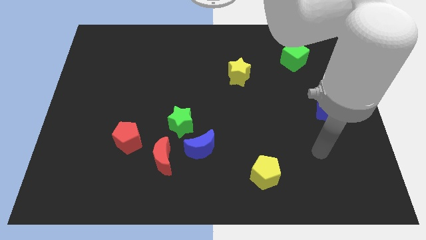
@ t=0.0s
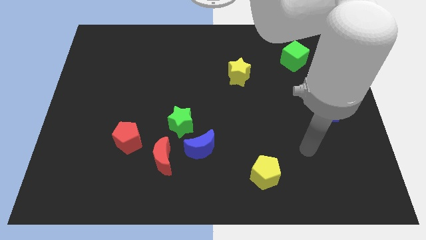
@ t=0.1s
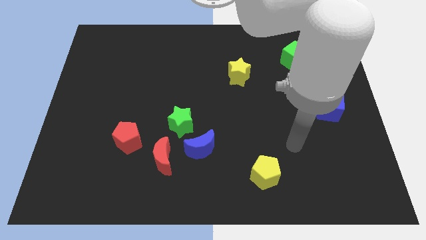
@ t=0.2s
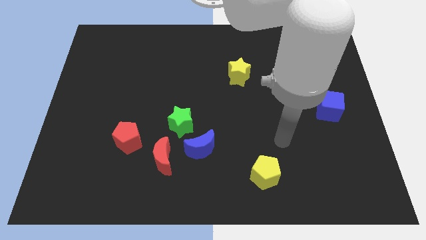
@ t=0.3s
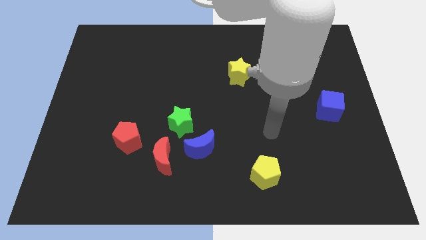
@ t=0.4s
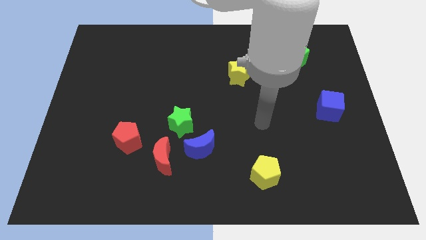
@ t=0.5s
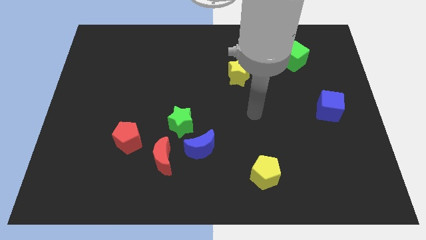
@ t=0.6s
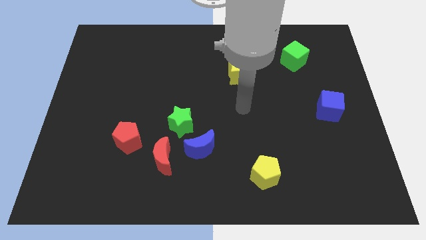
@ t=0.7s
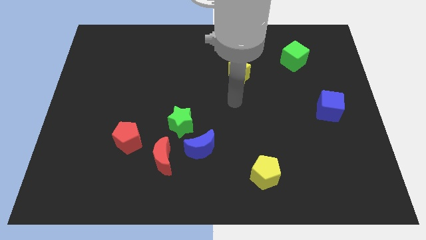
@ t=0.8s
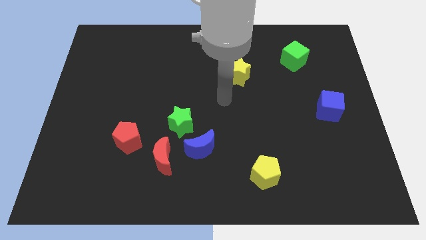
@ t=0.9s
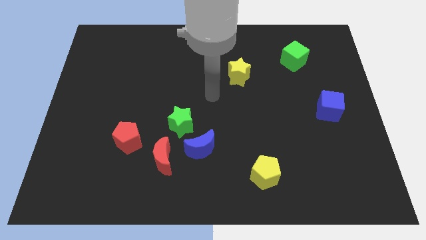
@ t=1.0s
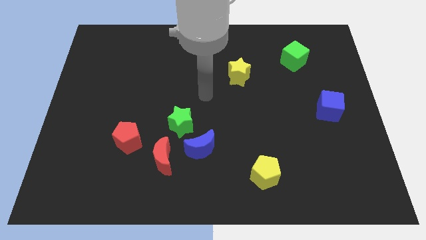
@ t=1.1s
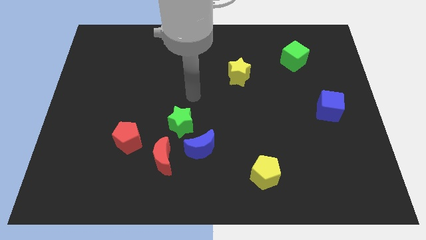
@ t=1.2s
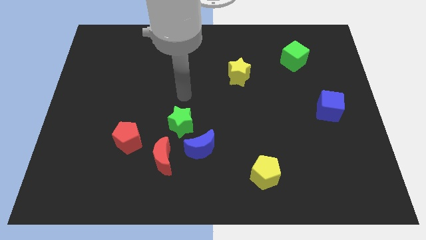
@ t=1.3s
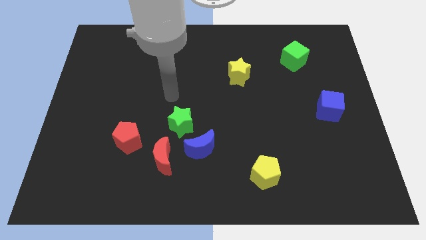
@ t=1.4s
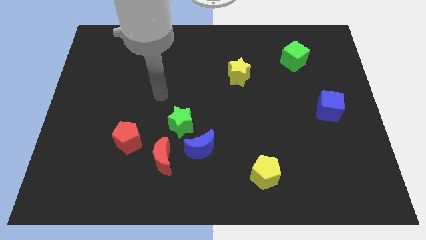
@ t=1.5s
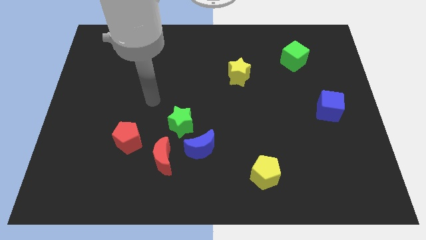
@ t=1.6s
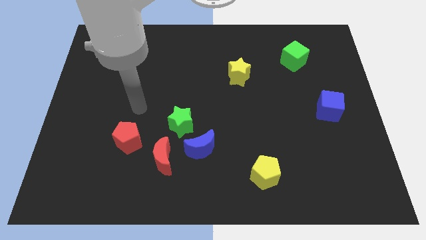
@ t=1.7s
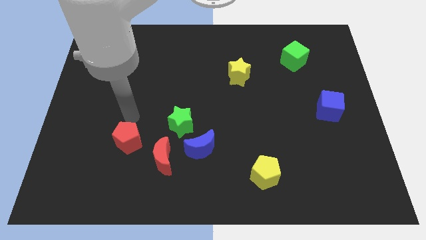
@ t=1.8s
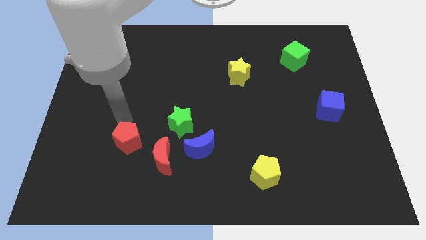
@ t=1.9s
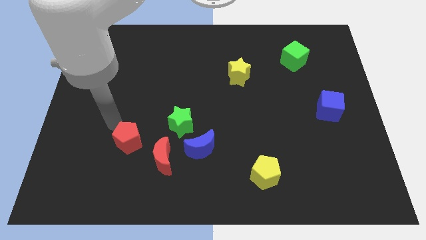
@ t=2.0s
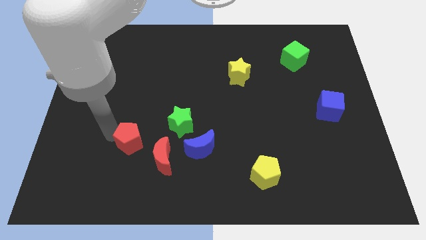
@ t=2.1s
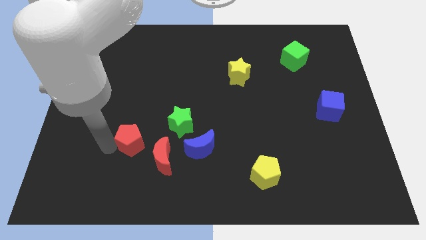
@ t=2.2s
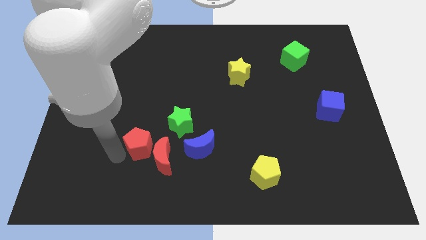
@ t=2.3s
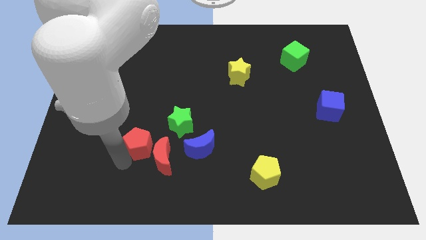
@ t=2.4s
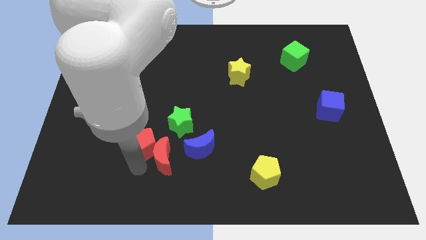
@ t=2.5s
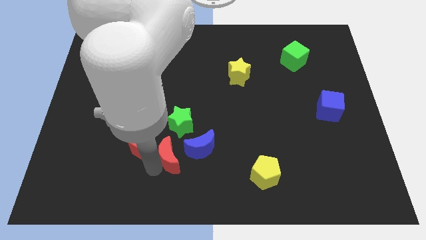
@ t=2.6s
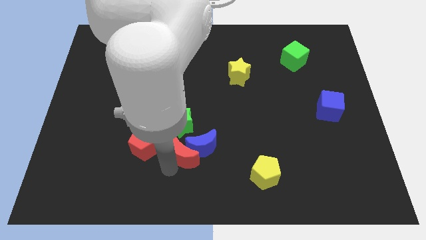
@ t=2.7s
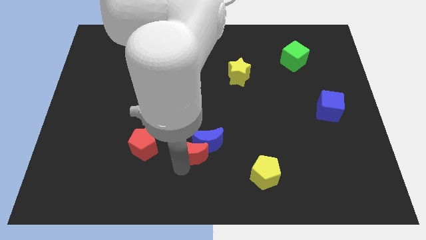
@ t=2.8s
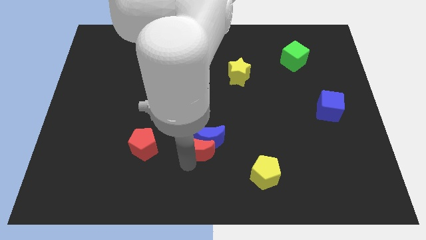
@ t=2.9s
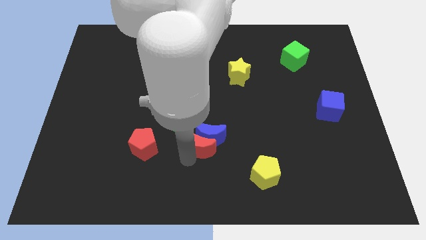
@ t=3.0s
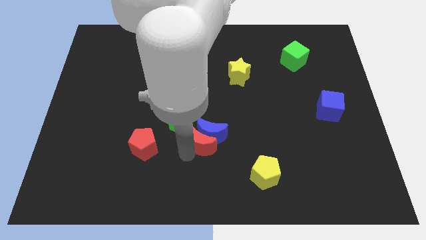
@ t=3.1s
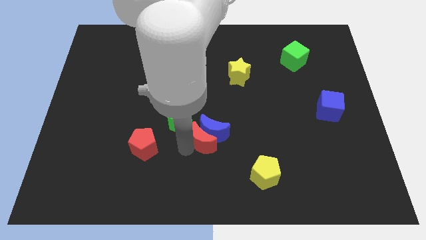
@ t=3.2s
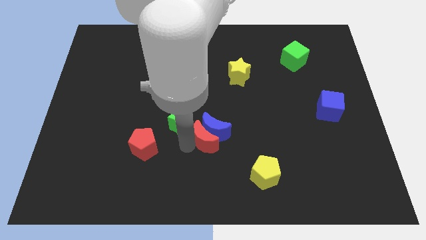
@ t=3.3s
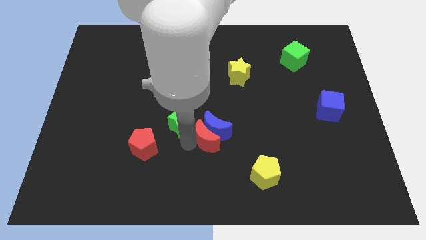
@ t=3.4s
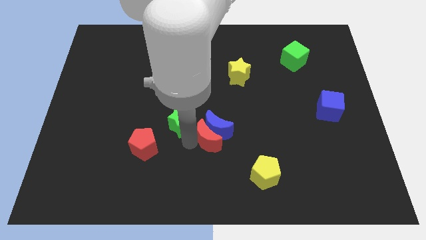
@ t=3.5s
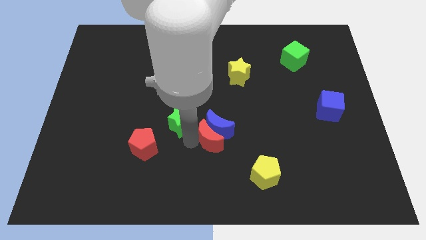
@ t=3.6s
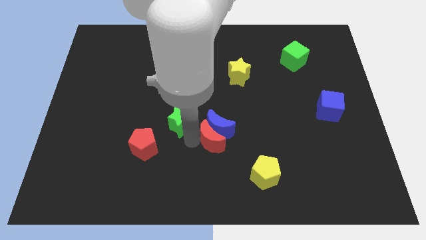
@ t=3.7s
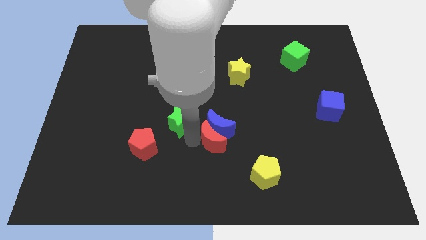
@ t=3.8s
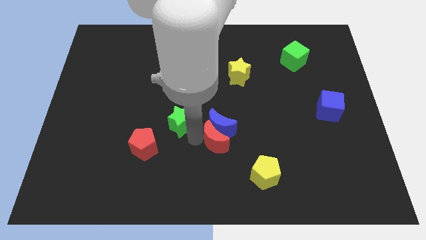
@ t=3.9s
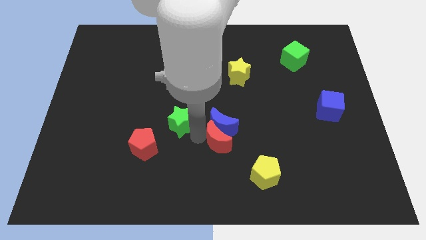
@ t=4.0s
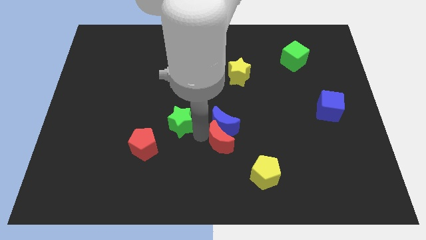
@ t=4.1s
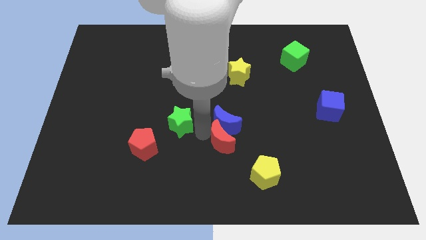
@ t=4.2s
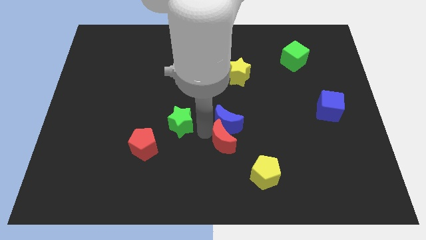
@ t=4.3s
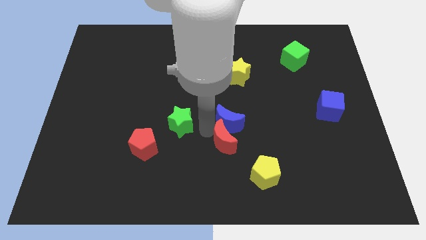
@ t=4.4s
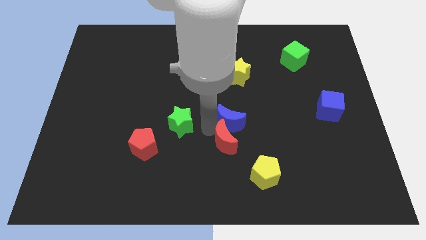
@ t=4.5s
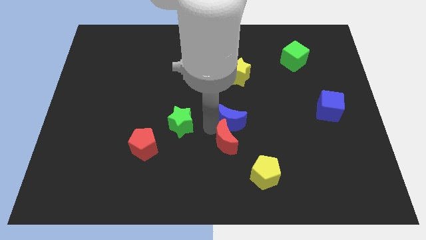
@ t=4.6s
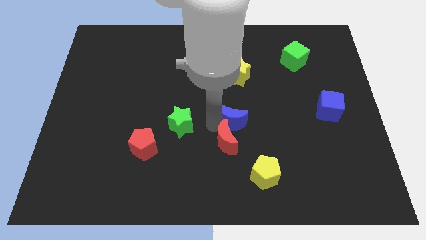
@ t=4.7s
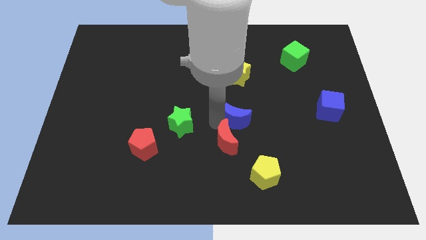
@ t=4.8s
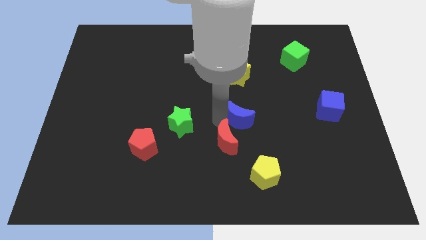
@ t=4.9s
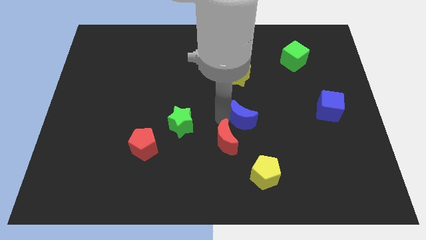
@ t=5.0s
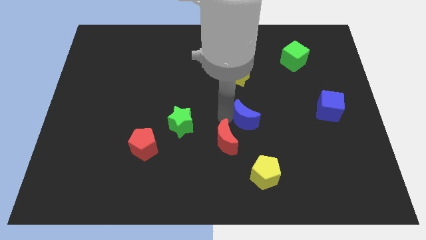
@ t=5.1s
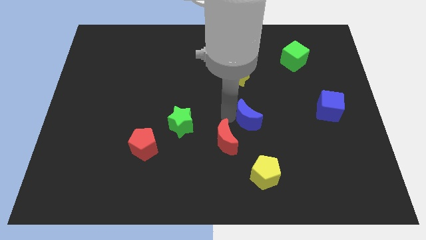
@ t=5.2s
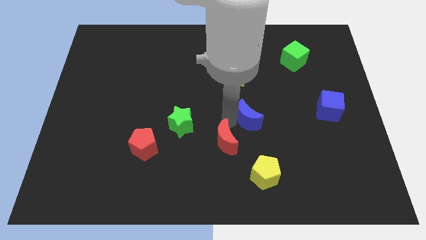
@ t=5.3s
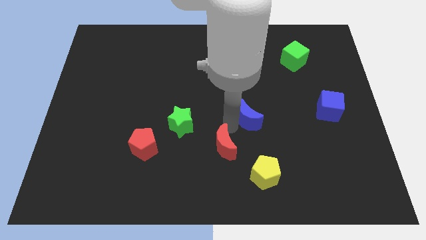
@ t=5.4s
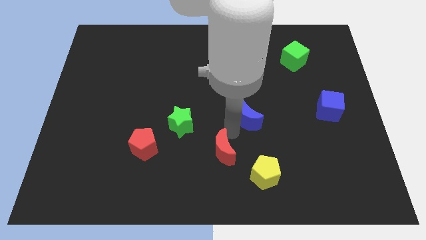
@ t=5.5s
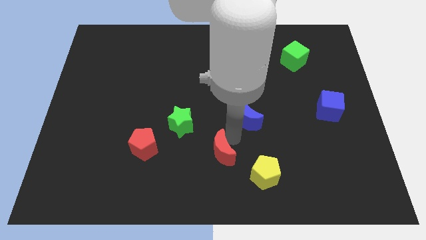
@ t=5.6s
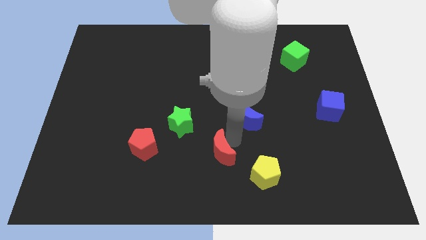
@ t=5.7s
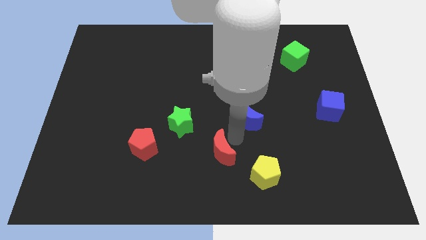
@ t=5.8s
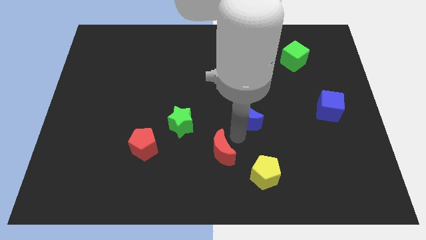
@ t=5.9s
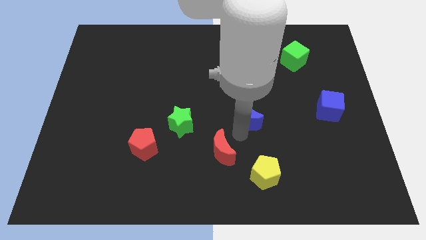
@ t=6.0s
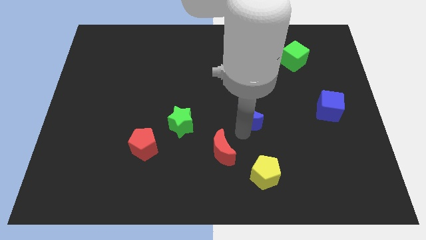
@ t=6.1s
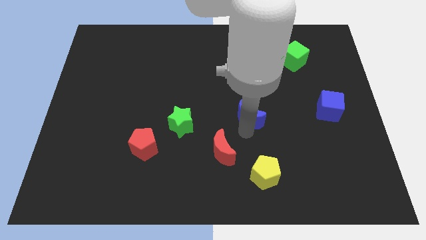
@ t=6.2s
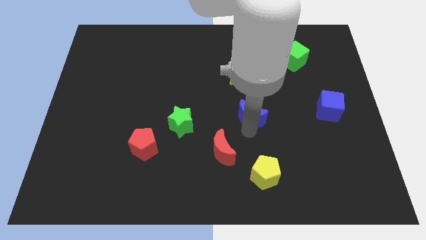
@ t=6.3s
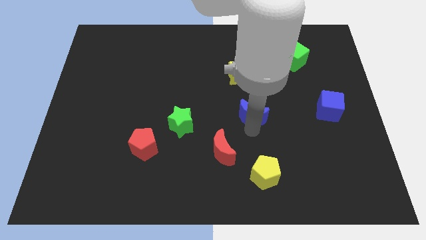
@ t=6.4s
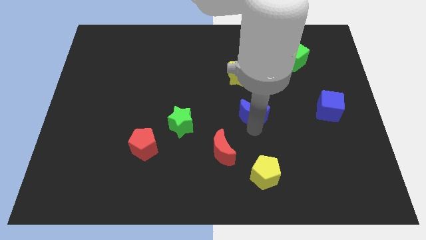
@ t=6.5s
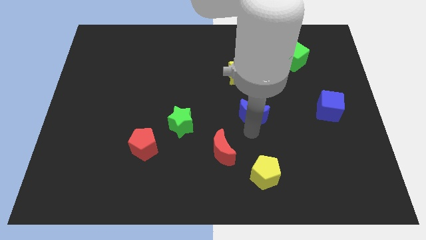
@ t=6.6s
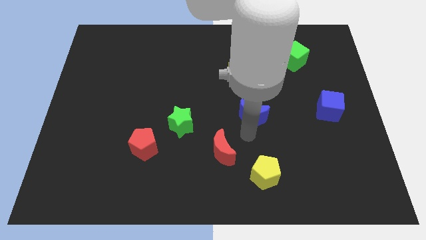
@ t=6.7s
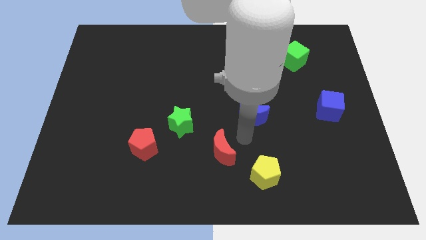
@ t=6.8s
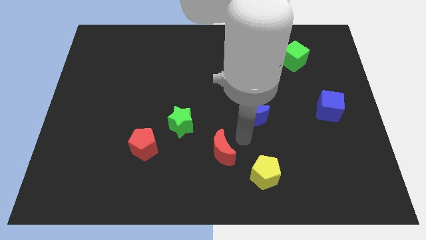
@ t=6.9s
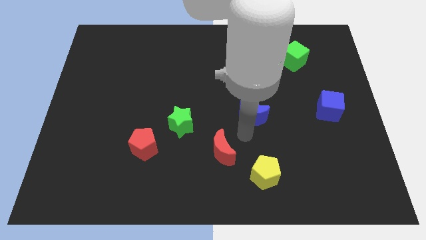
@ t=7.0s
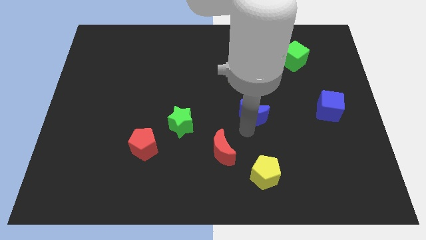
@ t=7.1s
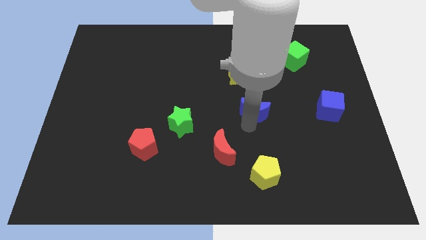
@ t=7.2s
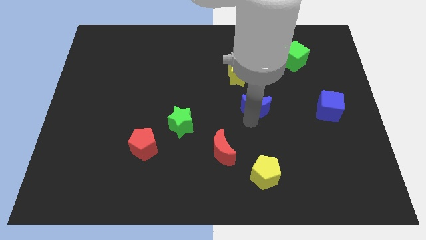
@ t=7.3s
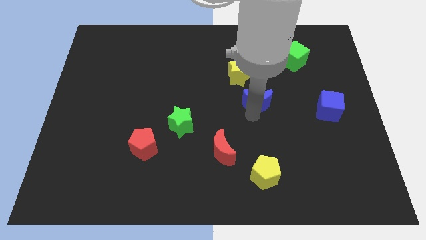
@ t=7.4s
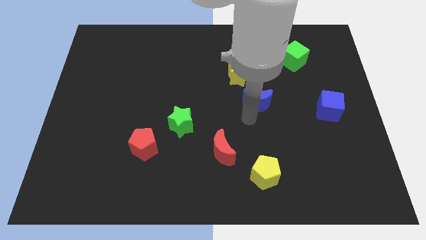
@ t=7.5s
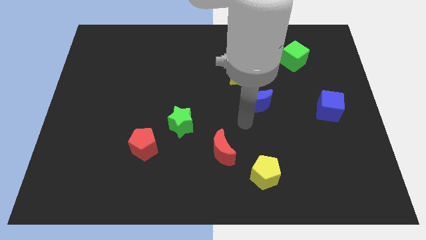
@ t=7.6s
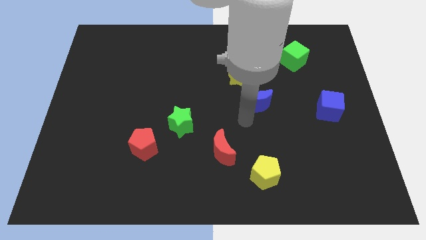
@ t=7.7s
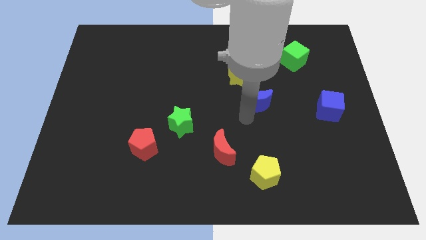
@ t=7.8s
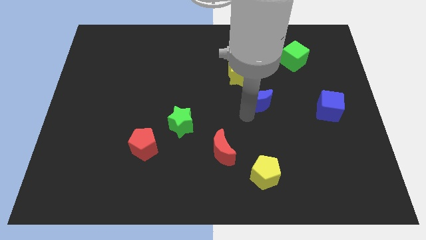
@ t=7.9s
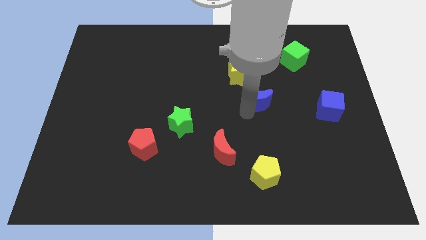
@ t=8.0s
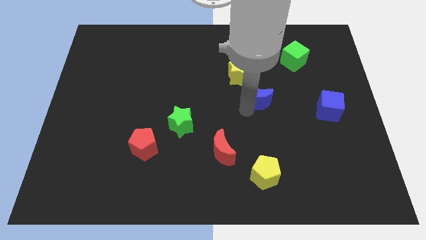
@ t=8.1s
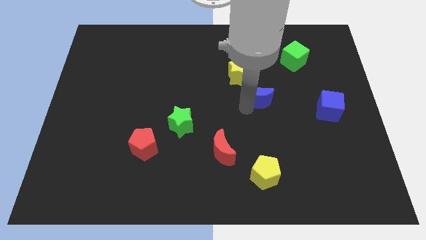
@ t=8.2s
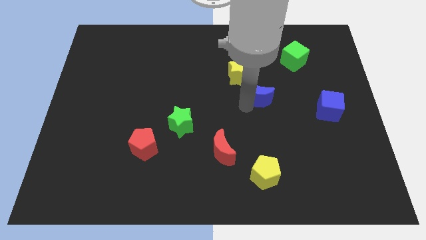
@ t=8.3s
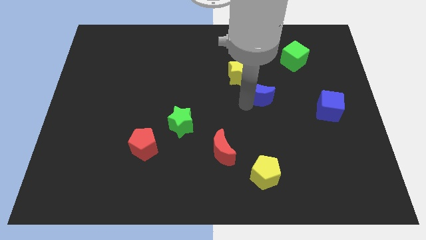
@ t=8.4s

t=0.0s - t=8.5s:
slide the blue moon up and to the right diagonally
